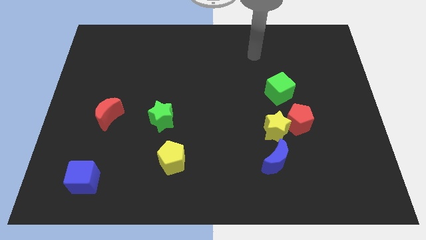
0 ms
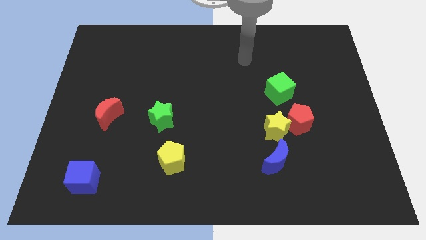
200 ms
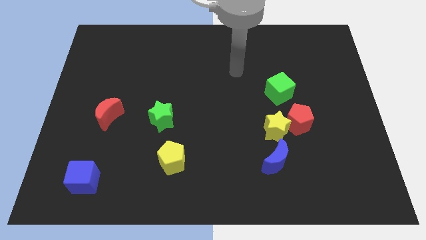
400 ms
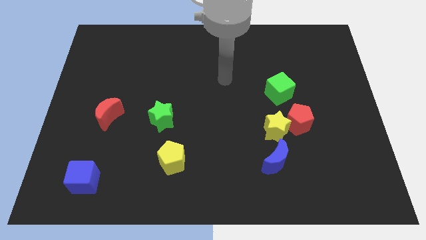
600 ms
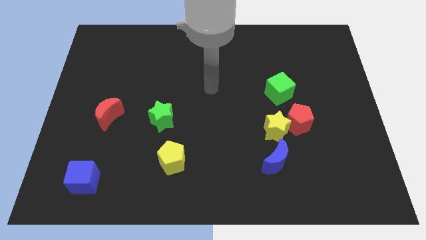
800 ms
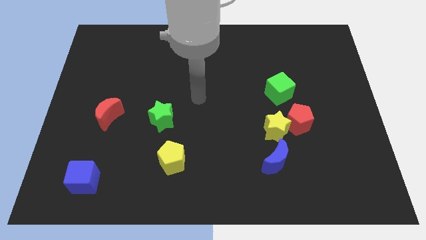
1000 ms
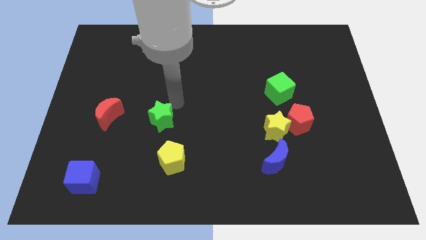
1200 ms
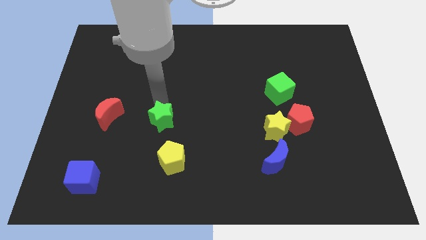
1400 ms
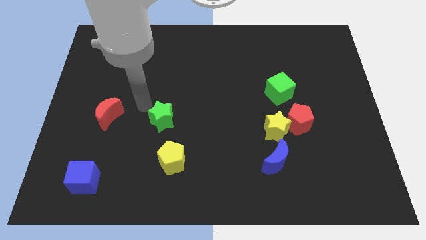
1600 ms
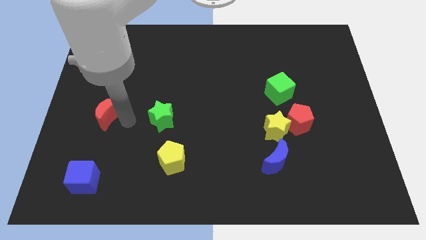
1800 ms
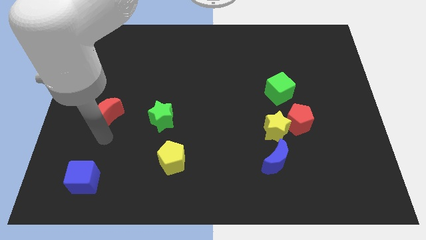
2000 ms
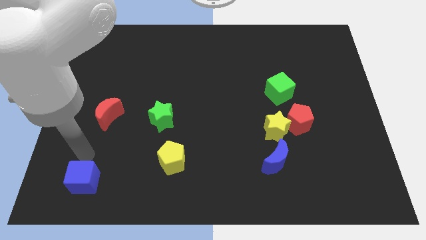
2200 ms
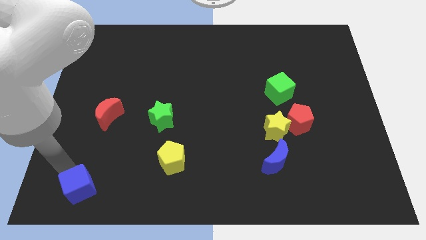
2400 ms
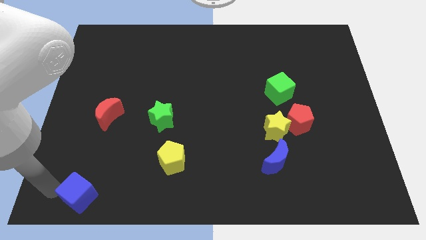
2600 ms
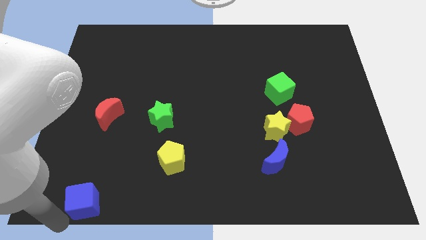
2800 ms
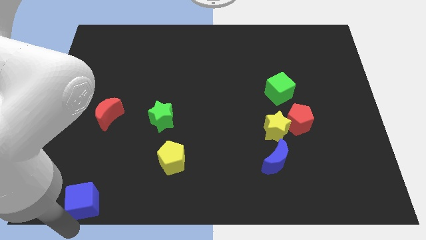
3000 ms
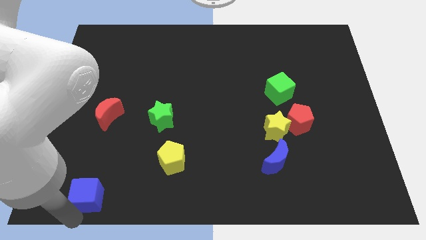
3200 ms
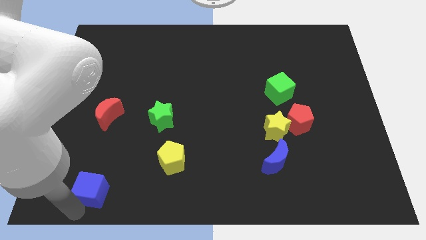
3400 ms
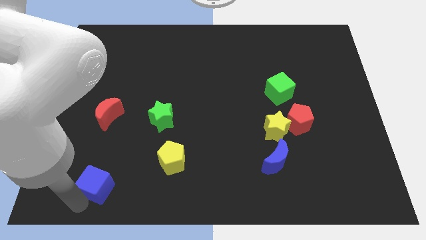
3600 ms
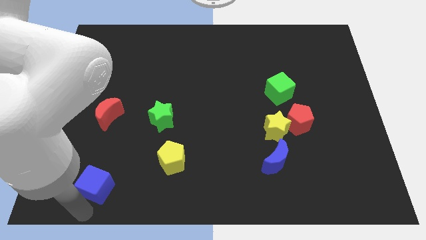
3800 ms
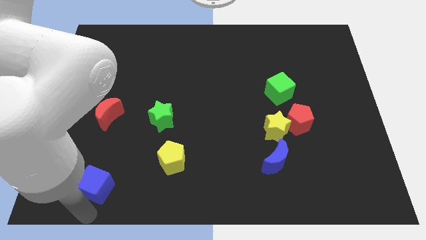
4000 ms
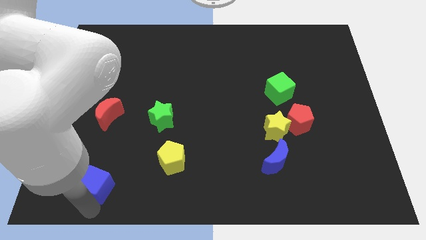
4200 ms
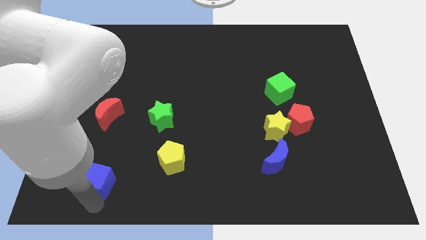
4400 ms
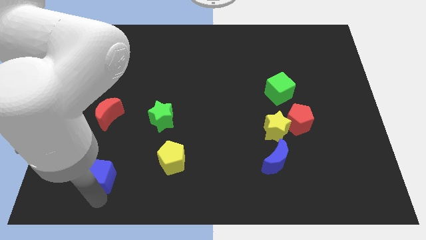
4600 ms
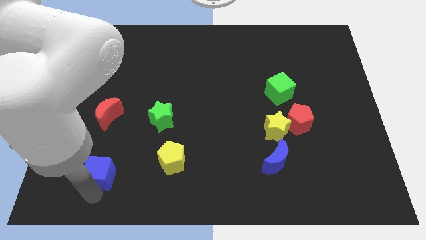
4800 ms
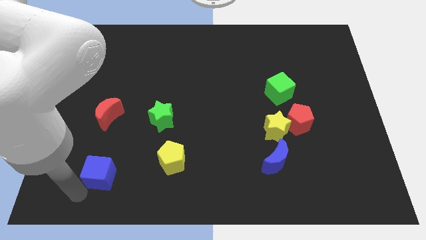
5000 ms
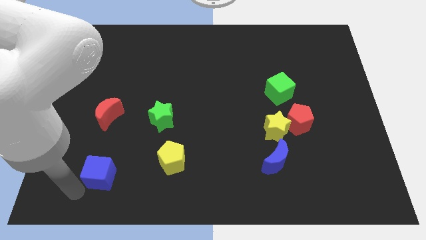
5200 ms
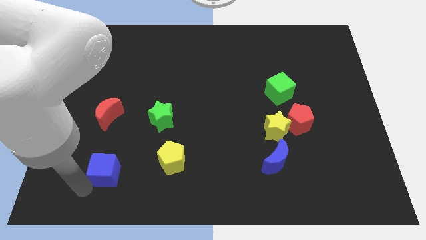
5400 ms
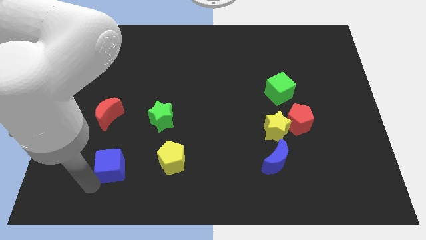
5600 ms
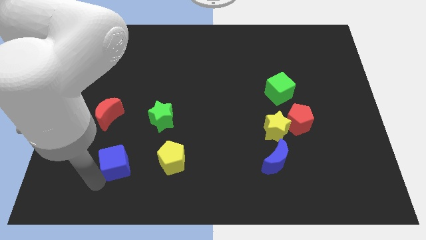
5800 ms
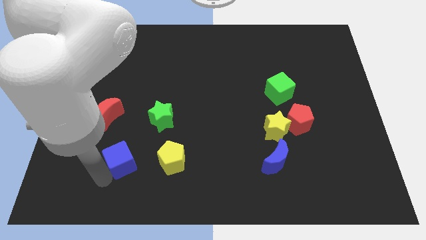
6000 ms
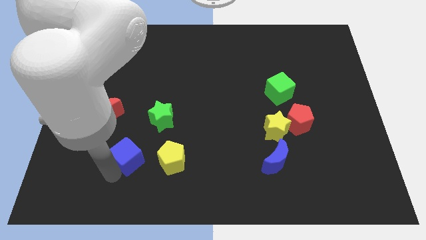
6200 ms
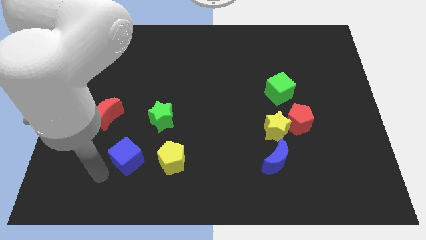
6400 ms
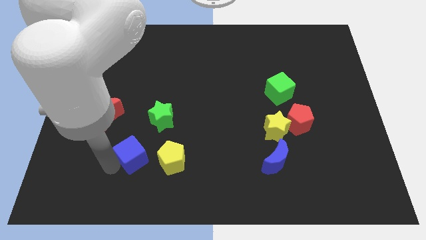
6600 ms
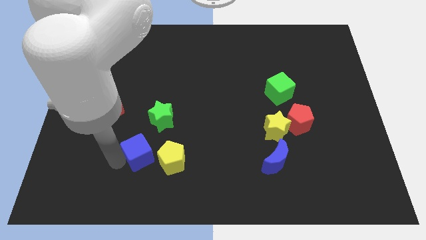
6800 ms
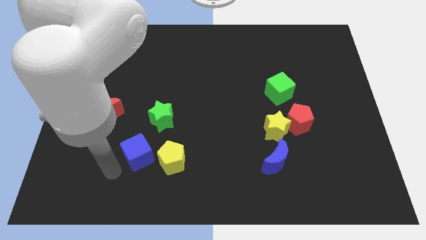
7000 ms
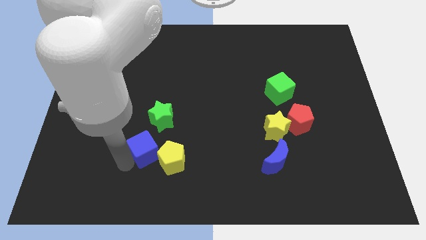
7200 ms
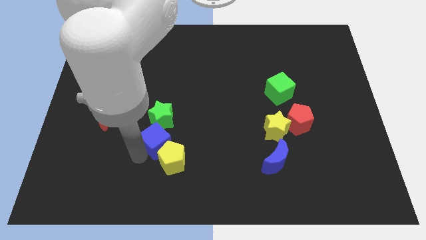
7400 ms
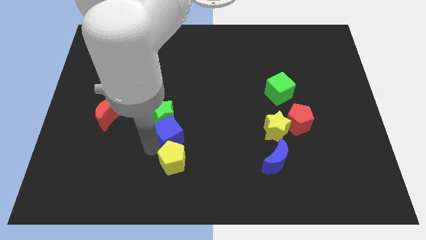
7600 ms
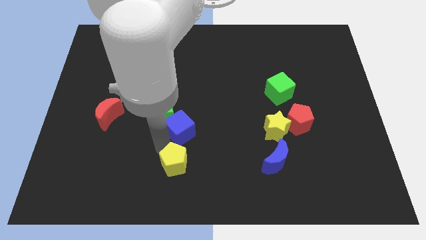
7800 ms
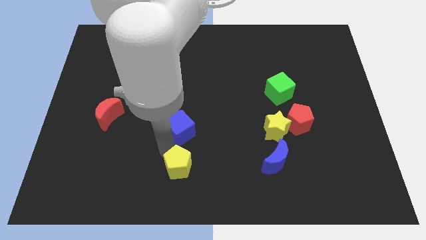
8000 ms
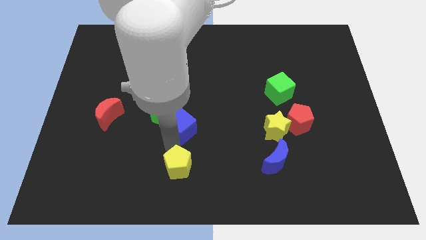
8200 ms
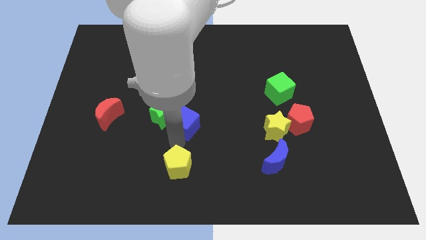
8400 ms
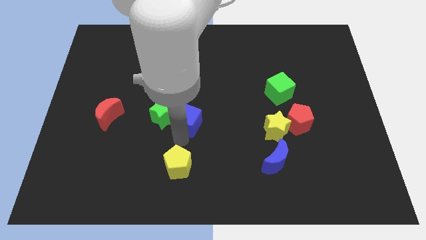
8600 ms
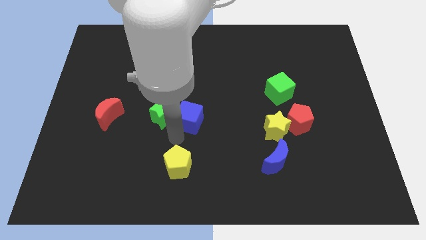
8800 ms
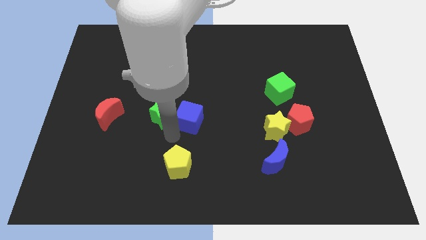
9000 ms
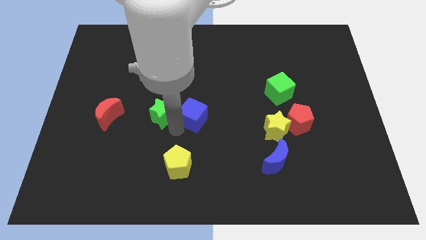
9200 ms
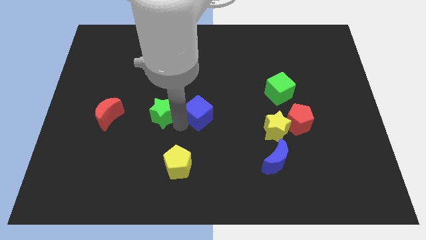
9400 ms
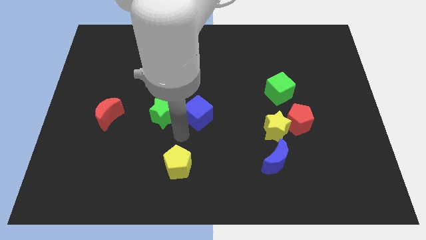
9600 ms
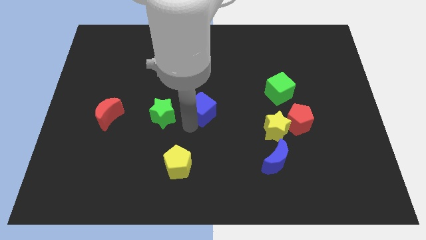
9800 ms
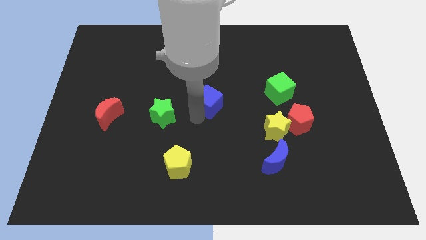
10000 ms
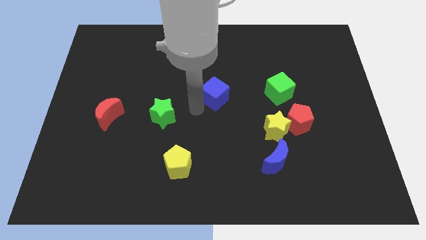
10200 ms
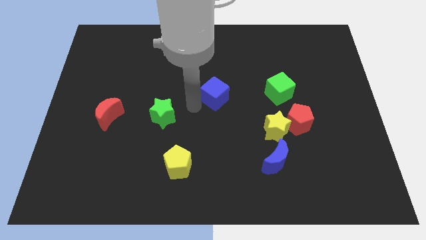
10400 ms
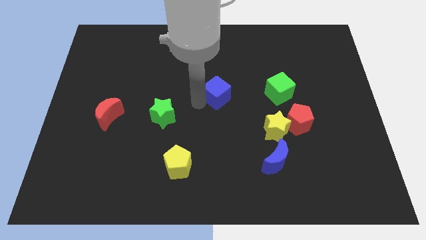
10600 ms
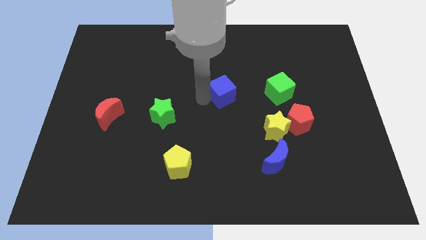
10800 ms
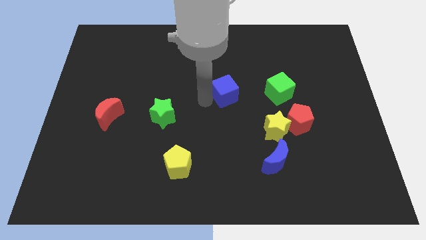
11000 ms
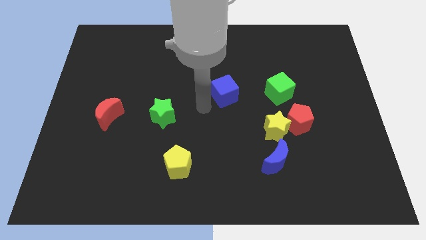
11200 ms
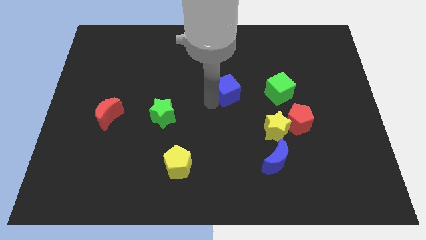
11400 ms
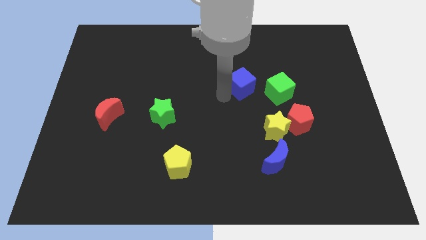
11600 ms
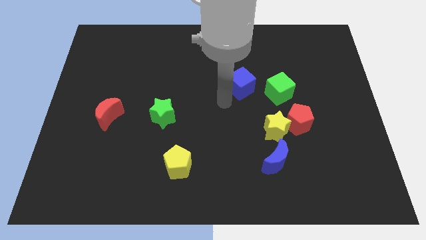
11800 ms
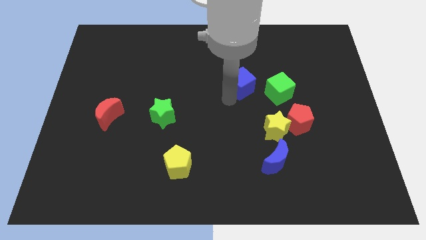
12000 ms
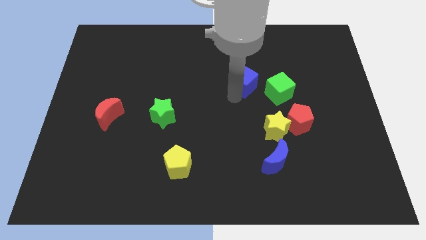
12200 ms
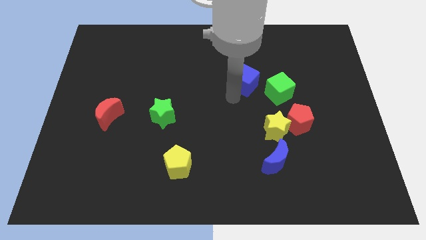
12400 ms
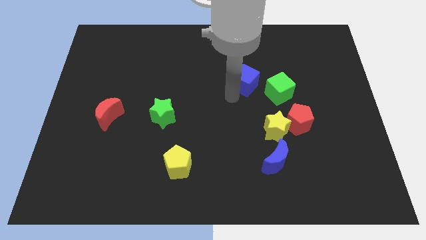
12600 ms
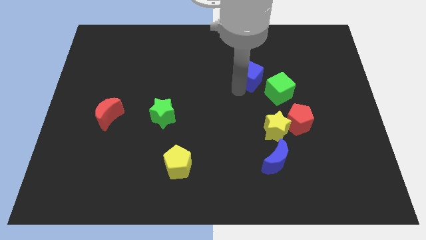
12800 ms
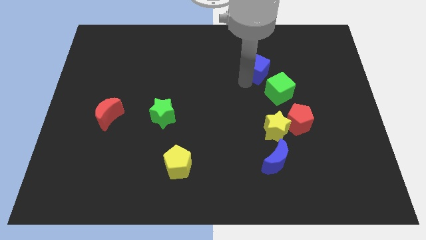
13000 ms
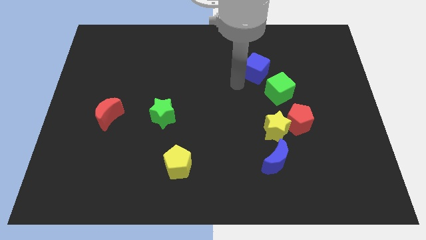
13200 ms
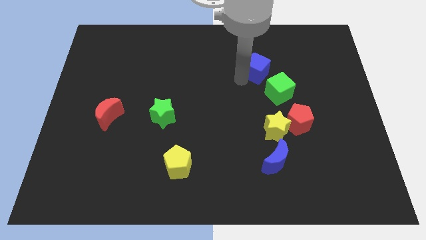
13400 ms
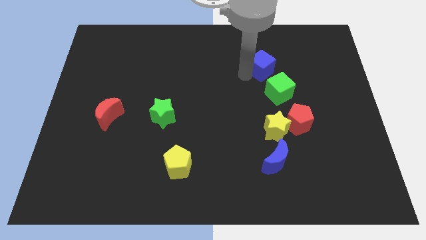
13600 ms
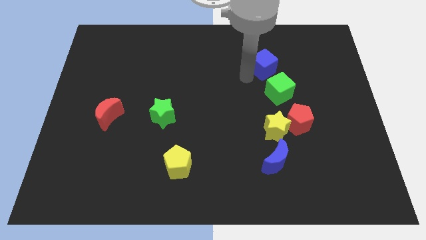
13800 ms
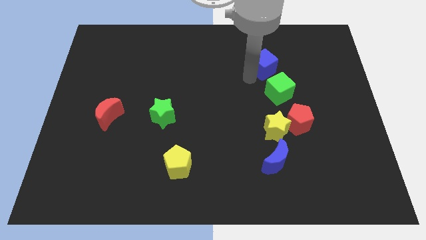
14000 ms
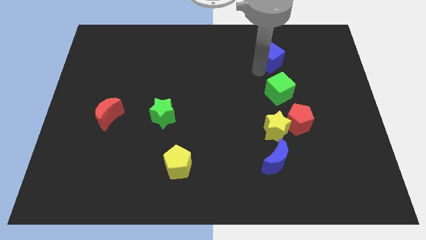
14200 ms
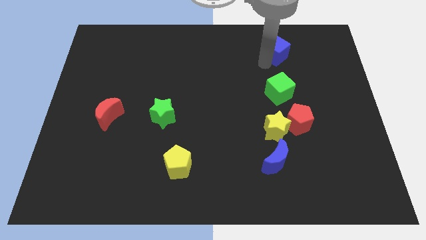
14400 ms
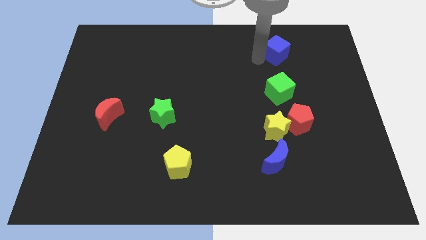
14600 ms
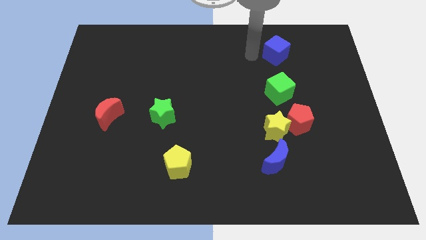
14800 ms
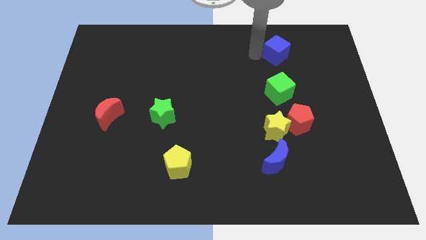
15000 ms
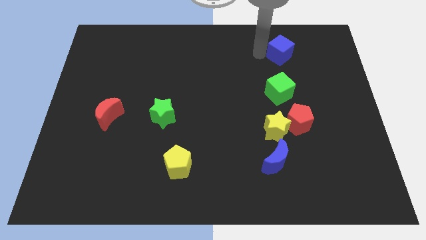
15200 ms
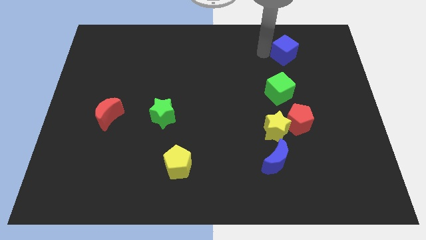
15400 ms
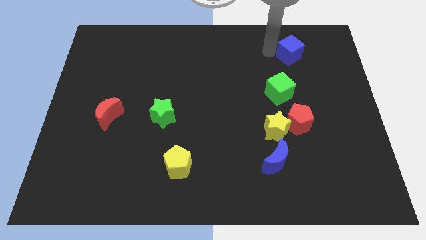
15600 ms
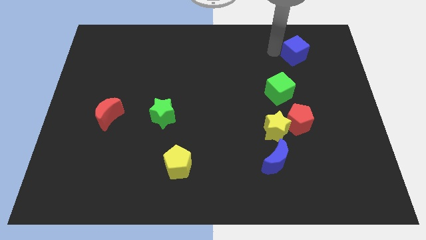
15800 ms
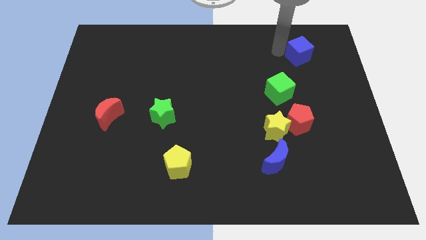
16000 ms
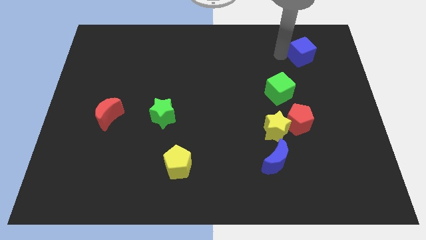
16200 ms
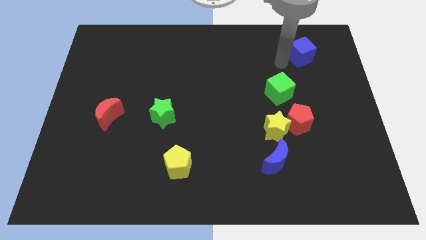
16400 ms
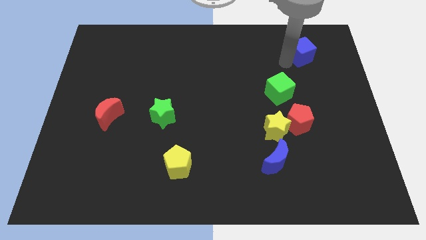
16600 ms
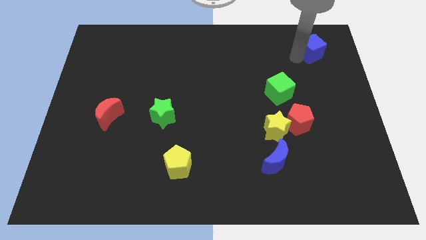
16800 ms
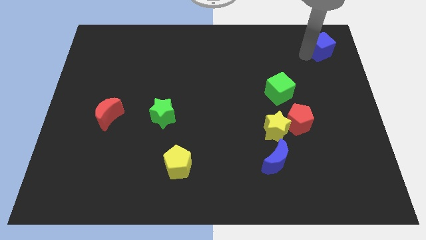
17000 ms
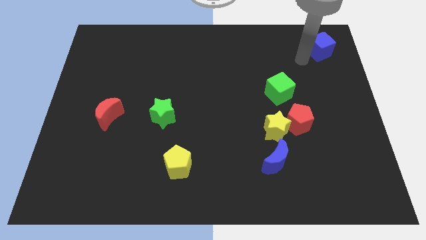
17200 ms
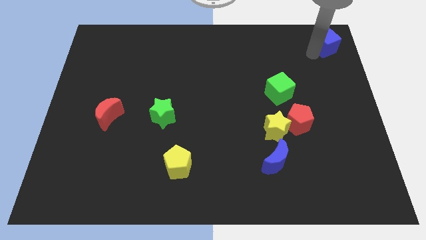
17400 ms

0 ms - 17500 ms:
put the blue cube to the upper right corner
